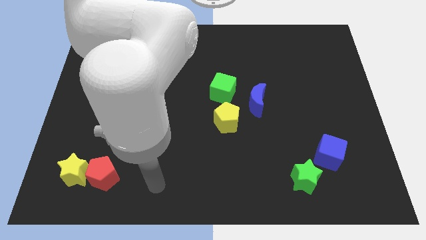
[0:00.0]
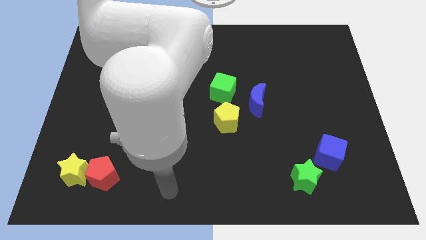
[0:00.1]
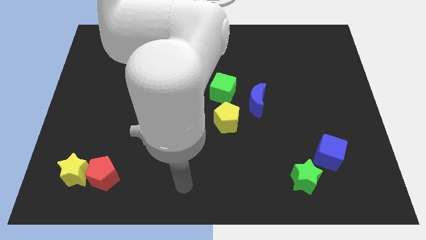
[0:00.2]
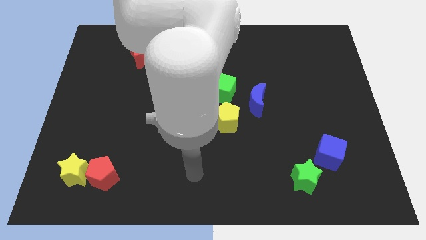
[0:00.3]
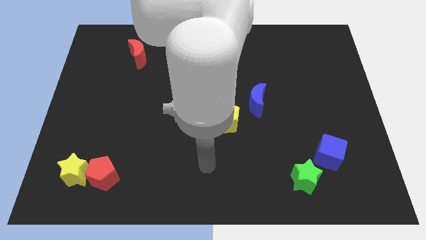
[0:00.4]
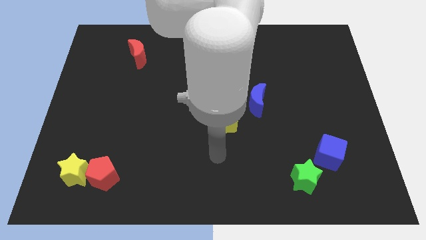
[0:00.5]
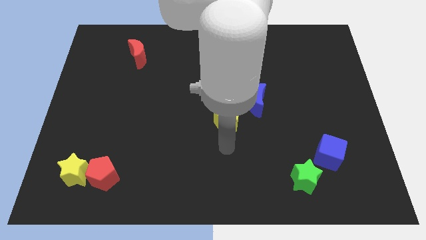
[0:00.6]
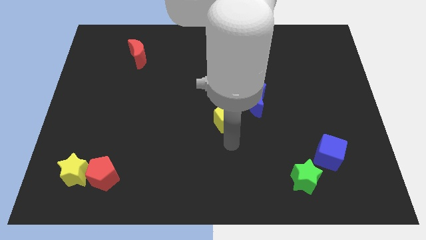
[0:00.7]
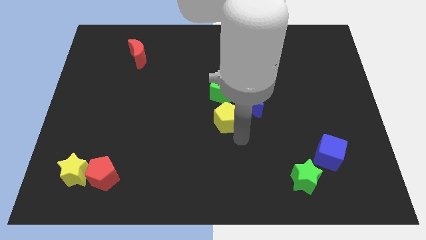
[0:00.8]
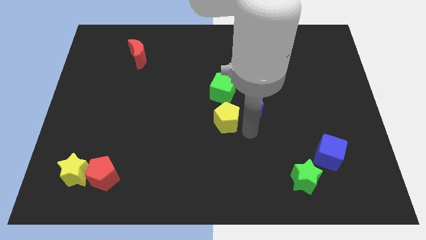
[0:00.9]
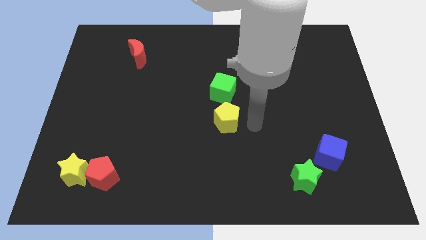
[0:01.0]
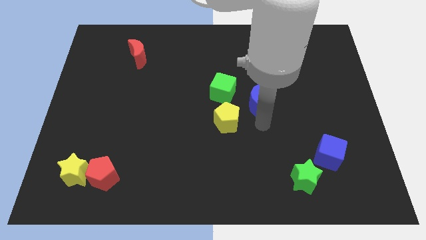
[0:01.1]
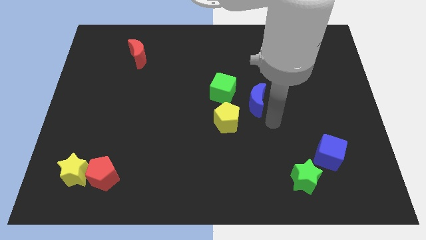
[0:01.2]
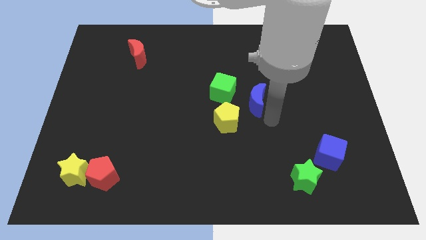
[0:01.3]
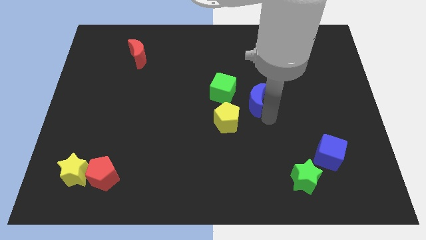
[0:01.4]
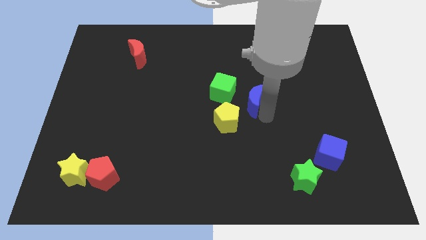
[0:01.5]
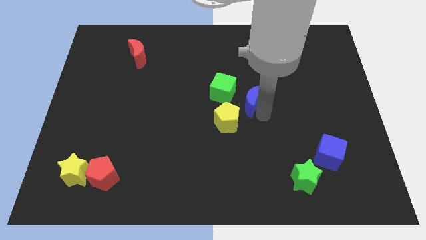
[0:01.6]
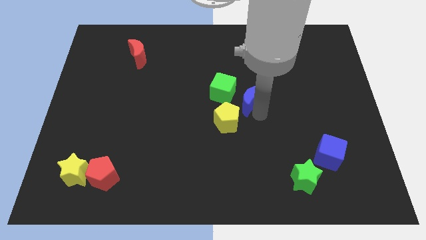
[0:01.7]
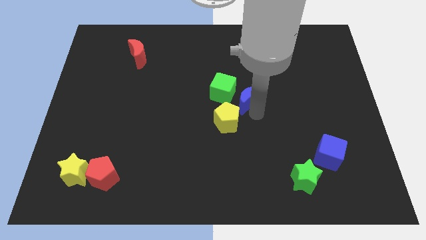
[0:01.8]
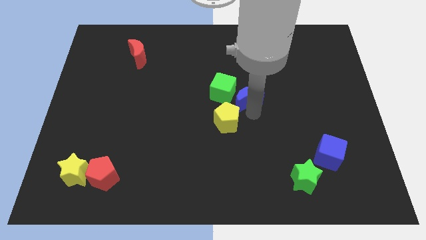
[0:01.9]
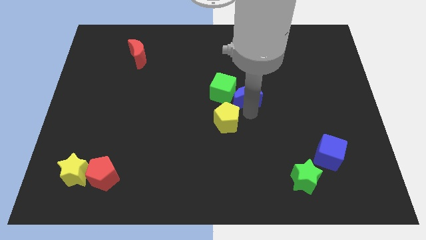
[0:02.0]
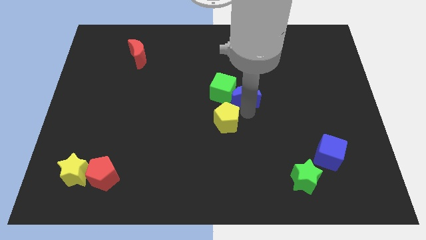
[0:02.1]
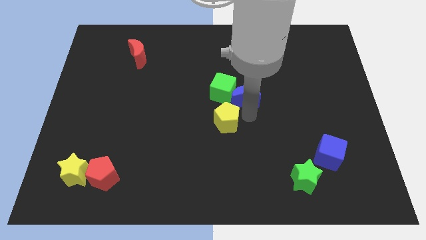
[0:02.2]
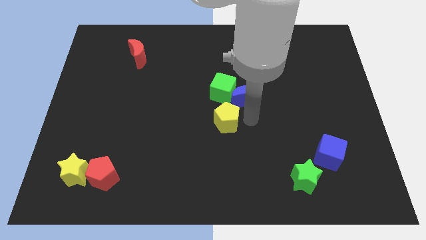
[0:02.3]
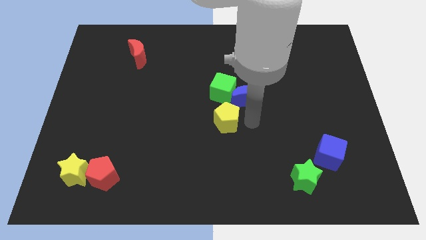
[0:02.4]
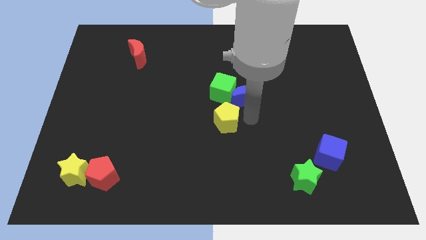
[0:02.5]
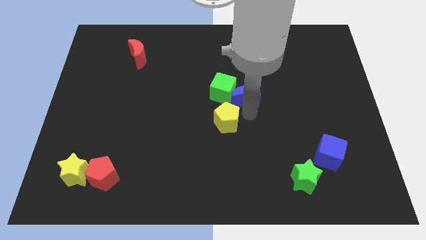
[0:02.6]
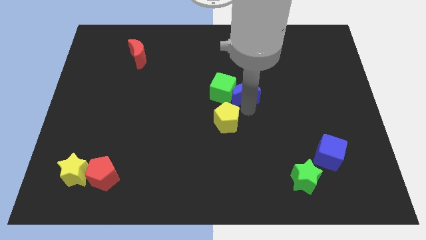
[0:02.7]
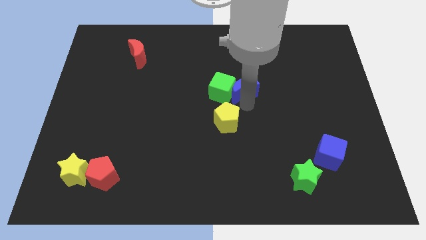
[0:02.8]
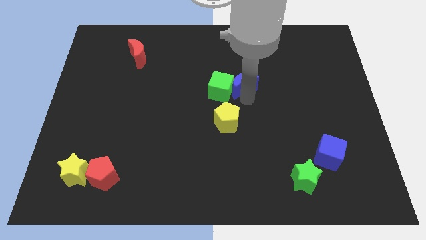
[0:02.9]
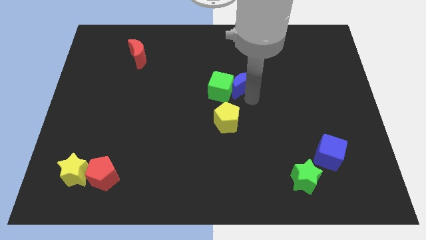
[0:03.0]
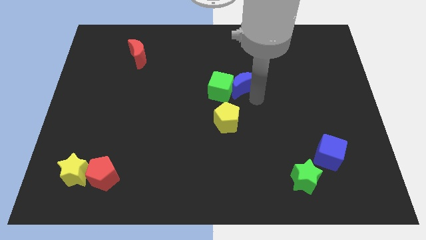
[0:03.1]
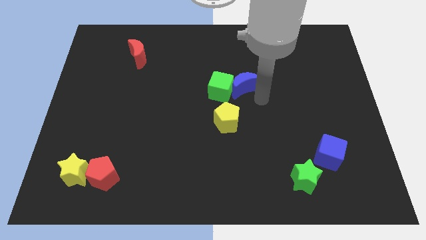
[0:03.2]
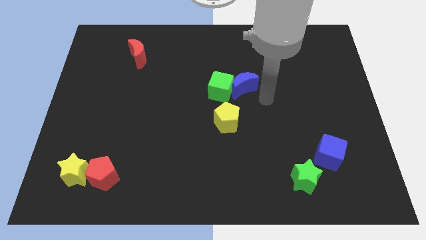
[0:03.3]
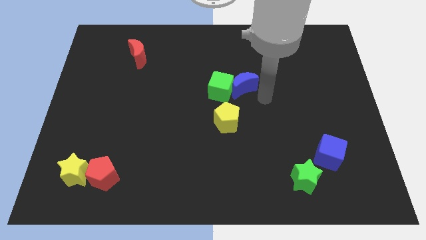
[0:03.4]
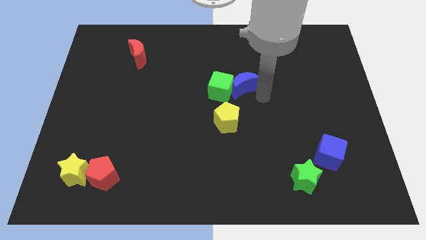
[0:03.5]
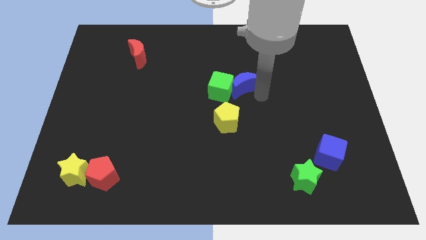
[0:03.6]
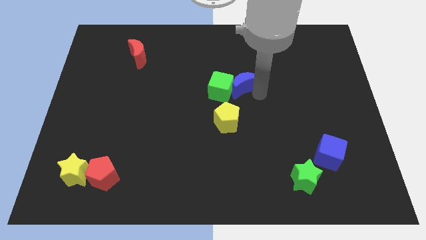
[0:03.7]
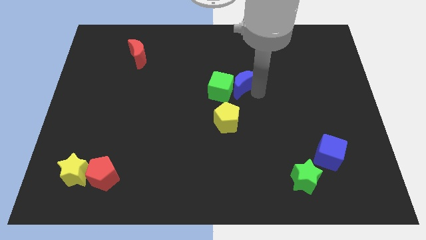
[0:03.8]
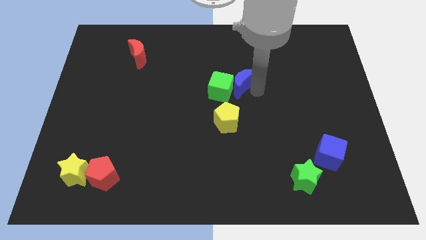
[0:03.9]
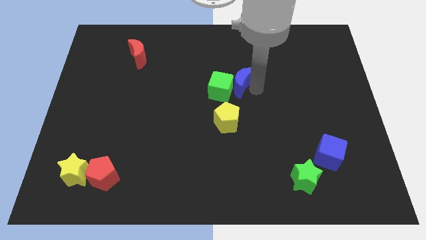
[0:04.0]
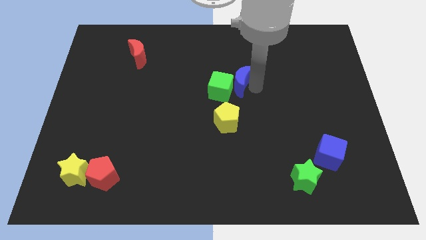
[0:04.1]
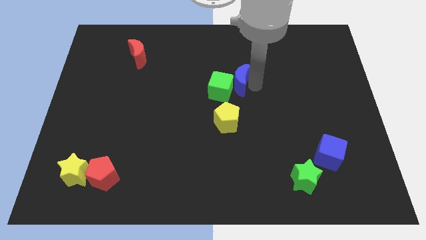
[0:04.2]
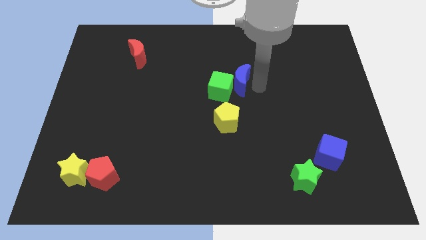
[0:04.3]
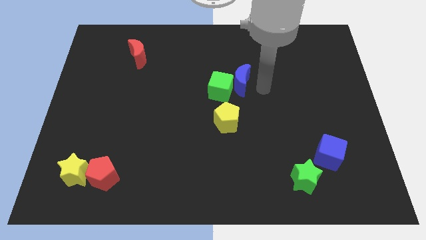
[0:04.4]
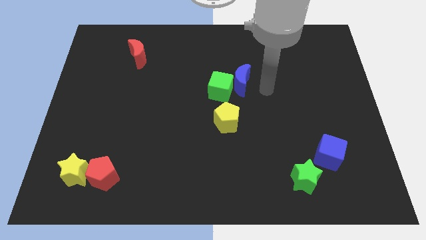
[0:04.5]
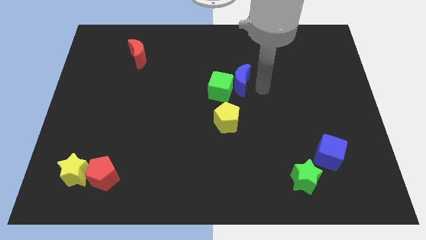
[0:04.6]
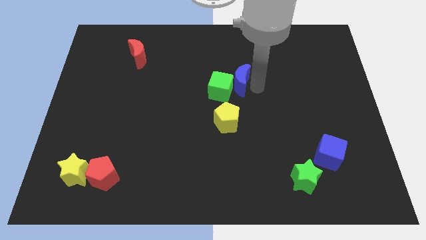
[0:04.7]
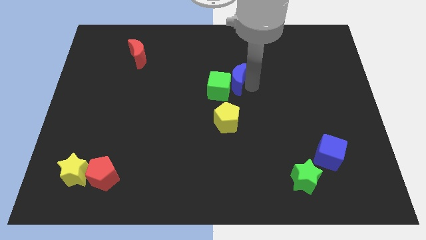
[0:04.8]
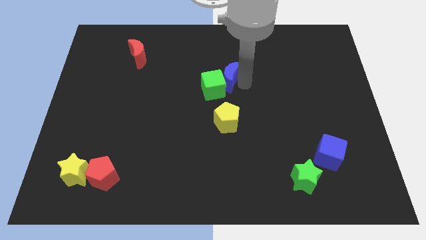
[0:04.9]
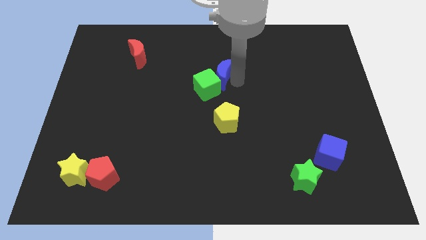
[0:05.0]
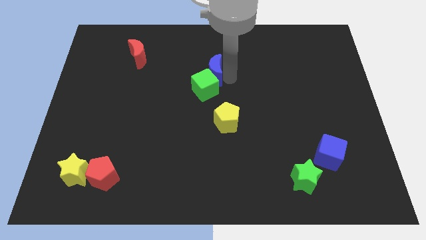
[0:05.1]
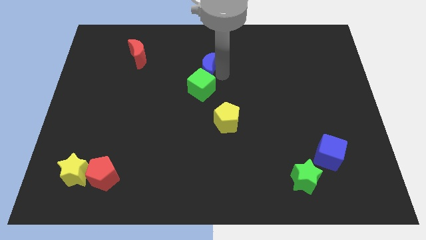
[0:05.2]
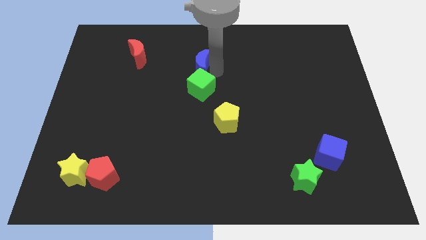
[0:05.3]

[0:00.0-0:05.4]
put the blue moon to the top left side of the green cube

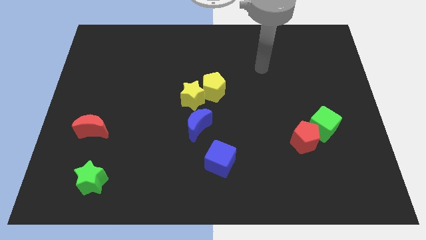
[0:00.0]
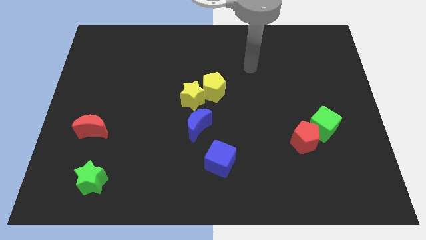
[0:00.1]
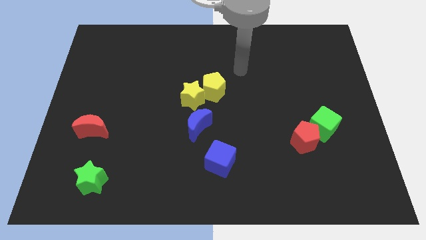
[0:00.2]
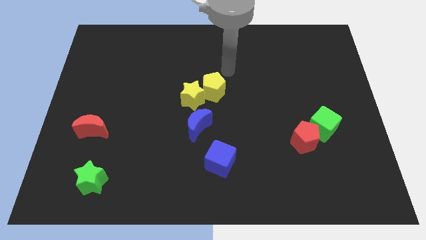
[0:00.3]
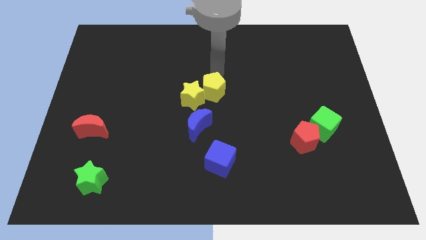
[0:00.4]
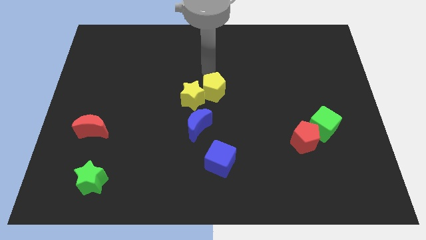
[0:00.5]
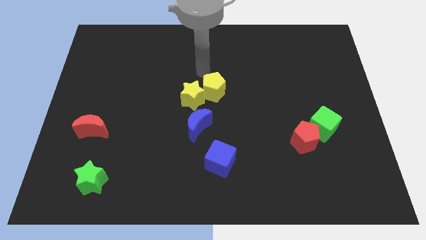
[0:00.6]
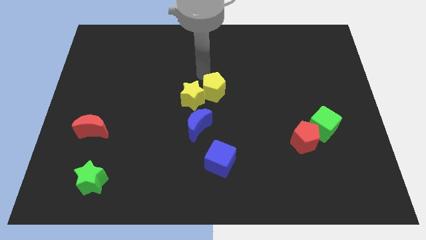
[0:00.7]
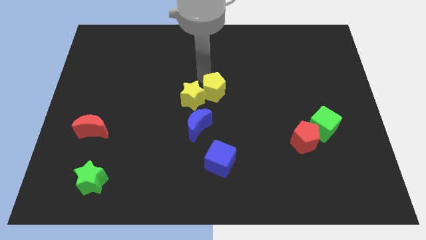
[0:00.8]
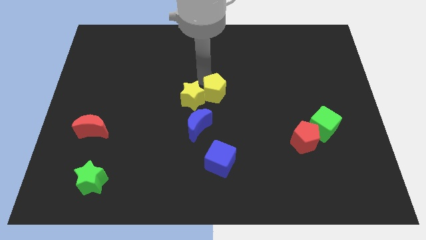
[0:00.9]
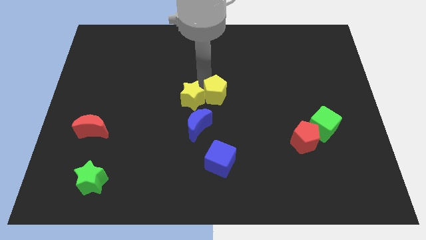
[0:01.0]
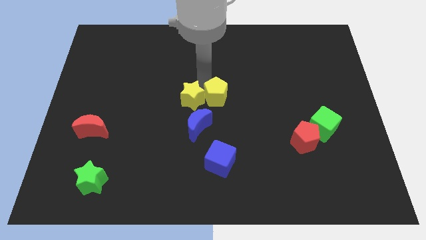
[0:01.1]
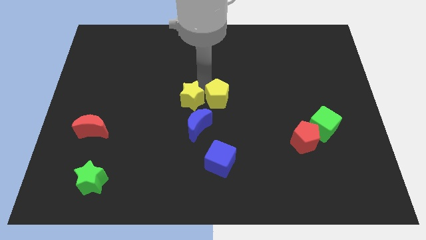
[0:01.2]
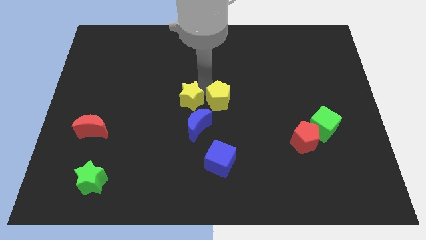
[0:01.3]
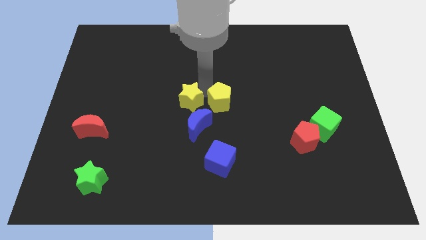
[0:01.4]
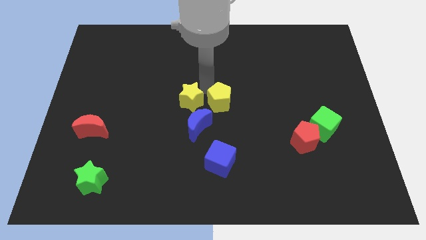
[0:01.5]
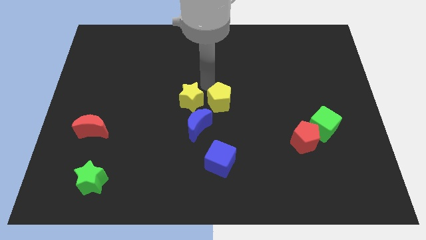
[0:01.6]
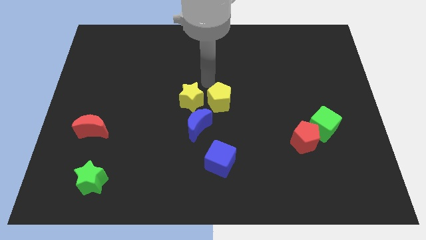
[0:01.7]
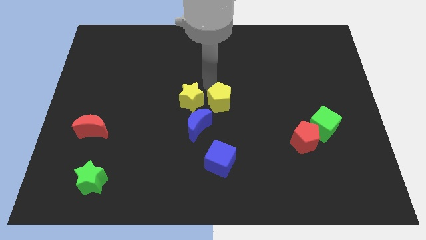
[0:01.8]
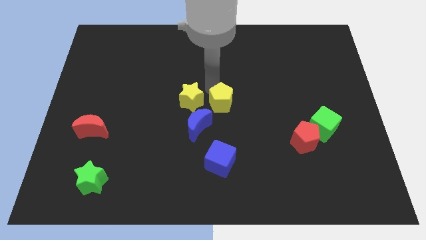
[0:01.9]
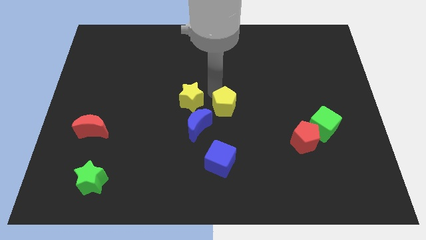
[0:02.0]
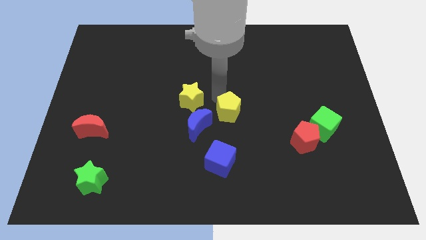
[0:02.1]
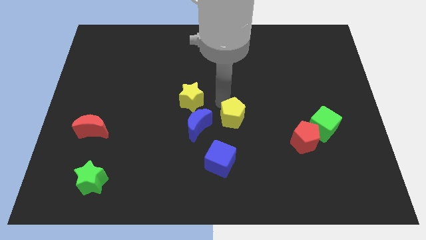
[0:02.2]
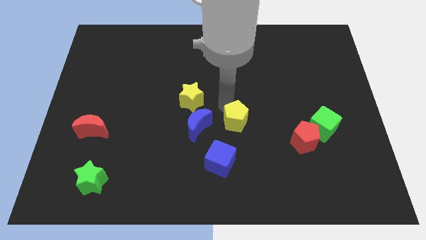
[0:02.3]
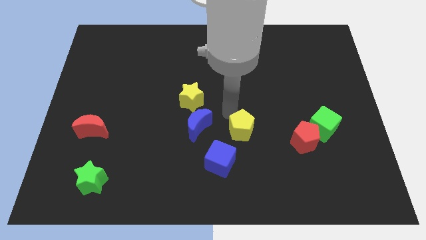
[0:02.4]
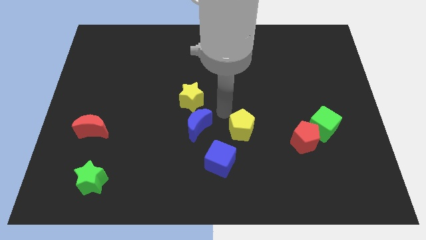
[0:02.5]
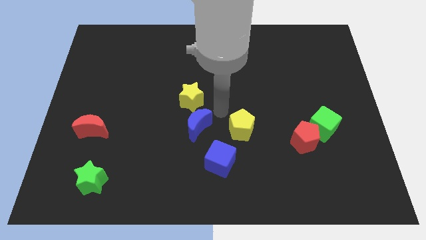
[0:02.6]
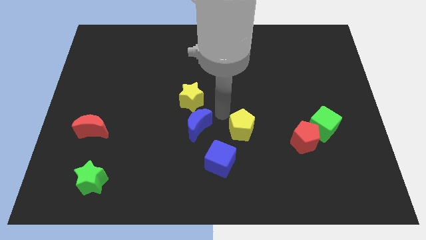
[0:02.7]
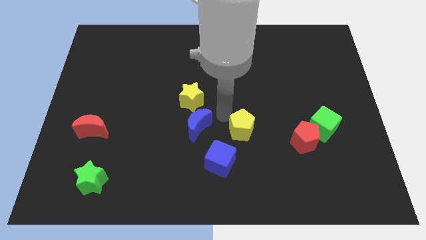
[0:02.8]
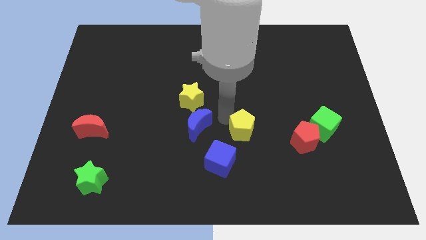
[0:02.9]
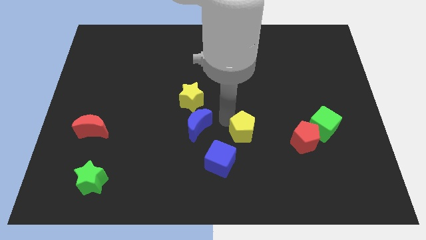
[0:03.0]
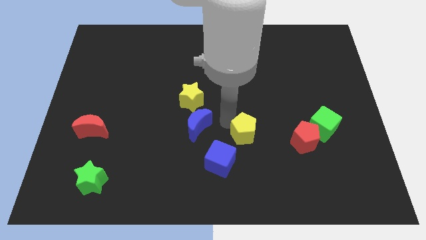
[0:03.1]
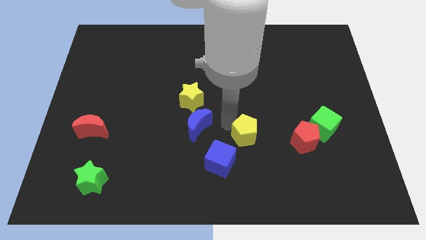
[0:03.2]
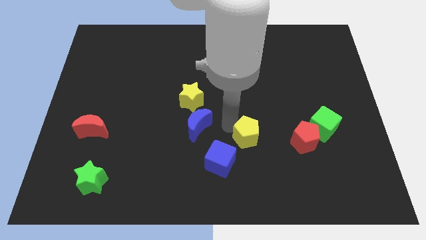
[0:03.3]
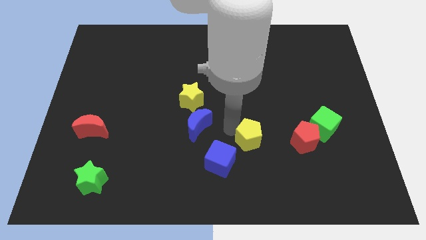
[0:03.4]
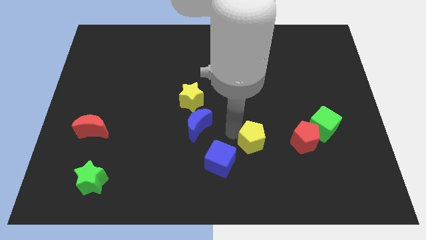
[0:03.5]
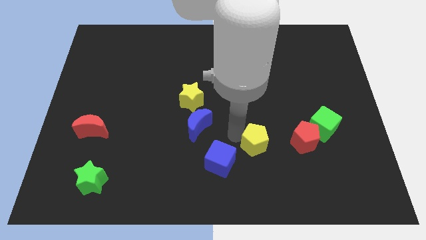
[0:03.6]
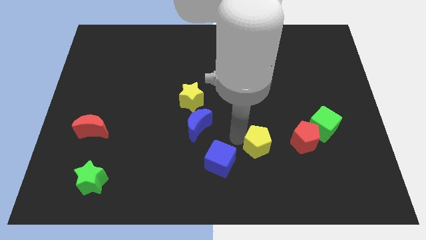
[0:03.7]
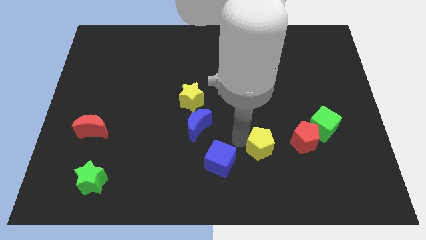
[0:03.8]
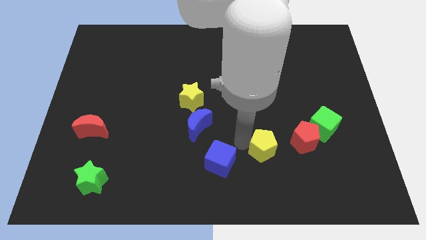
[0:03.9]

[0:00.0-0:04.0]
slide the yellow pentagon to the bottom left of the red pentagon
